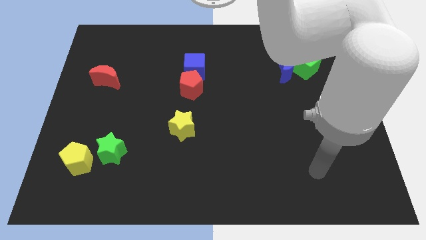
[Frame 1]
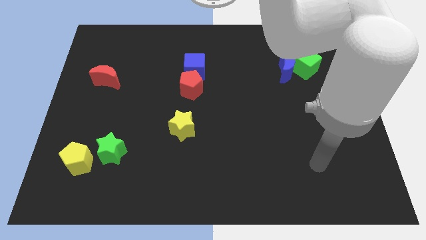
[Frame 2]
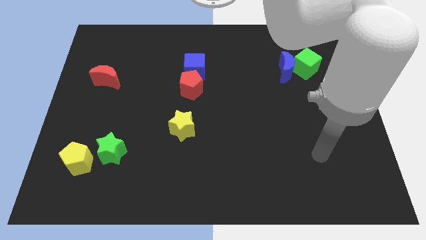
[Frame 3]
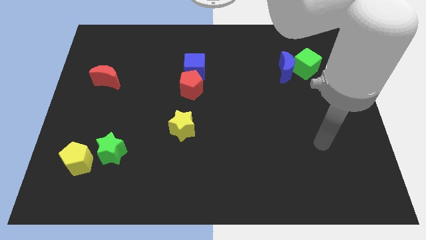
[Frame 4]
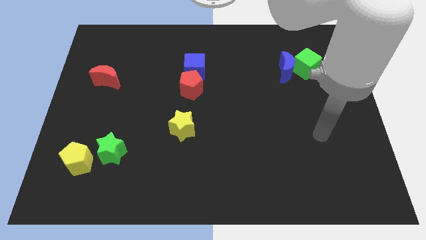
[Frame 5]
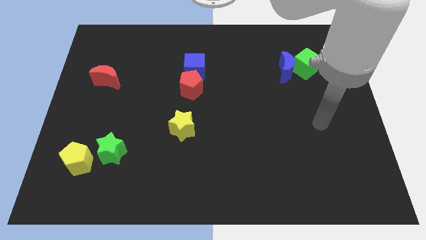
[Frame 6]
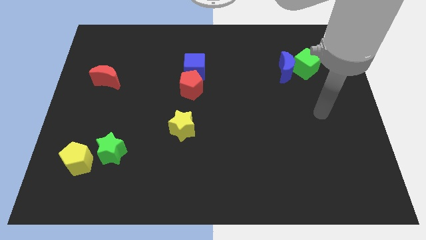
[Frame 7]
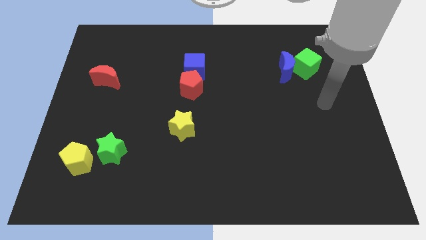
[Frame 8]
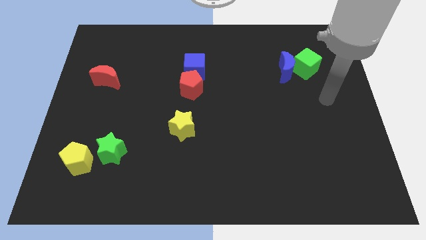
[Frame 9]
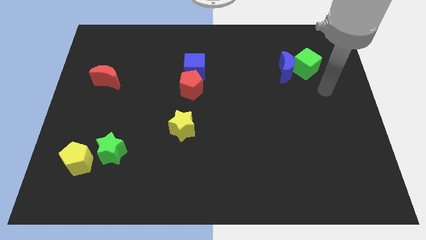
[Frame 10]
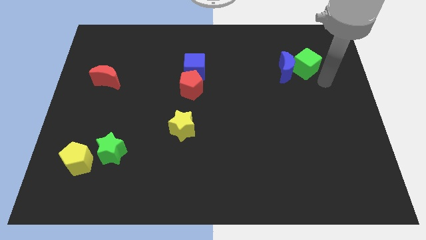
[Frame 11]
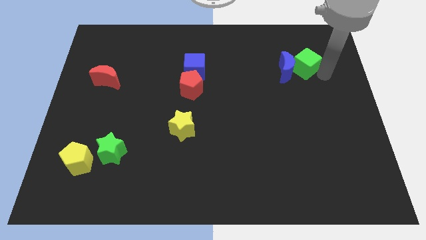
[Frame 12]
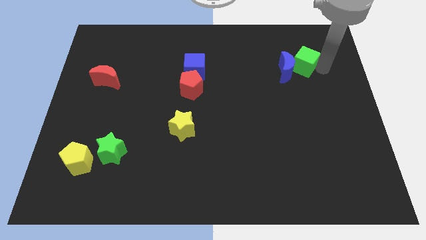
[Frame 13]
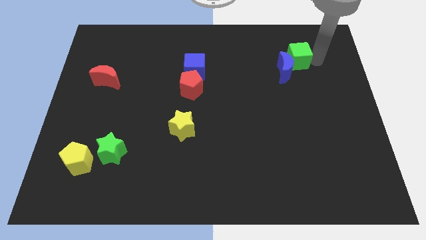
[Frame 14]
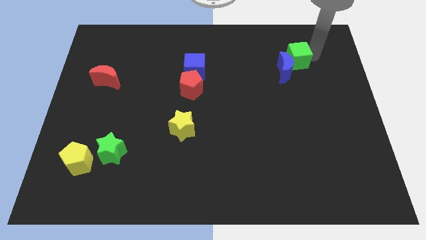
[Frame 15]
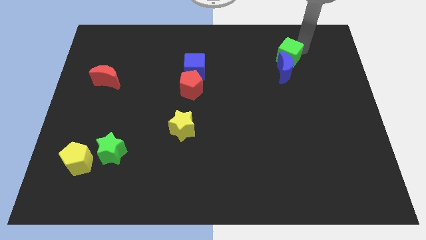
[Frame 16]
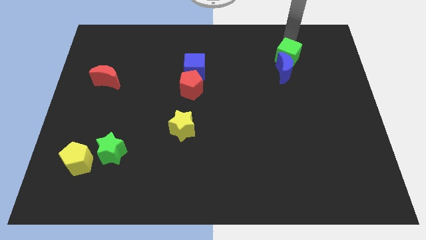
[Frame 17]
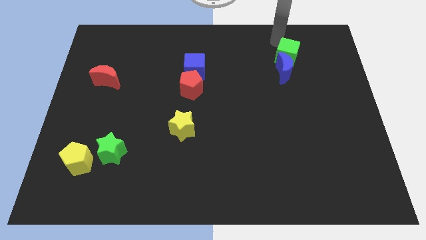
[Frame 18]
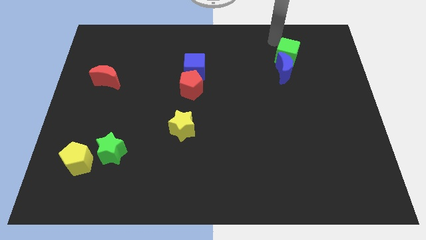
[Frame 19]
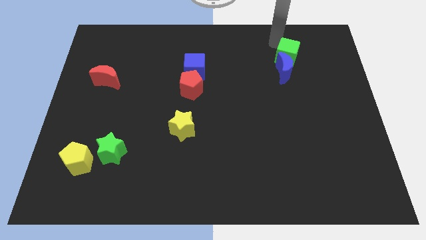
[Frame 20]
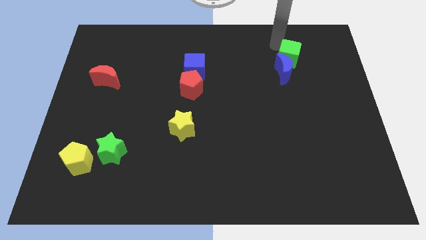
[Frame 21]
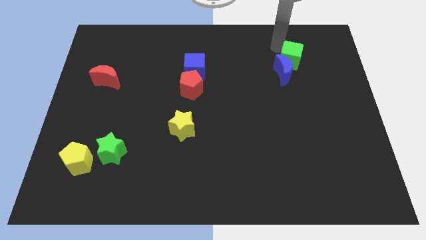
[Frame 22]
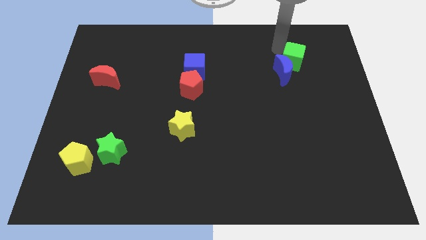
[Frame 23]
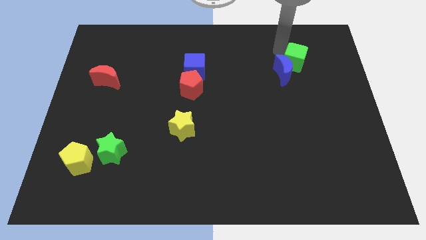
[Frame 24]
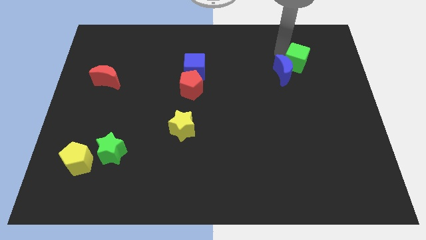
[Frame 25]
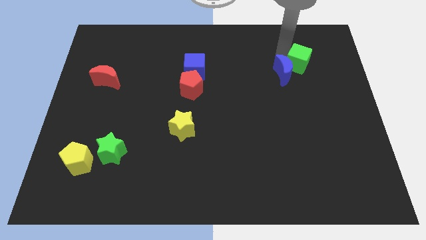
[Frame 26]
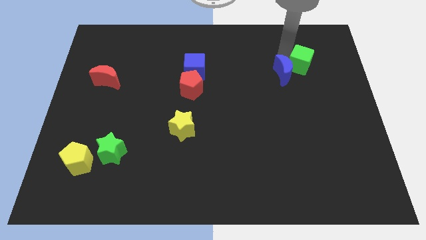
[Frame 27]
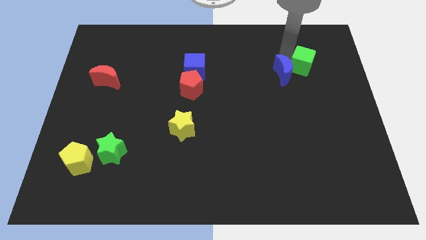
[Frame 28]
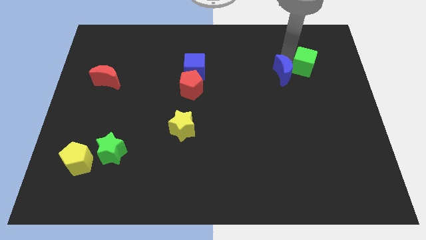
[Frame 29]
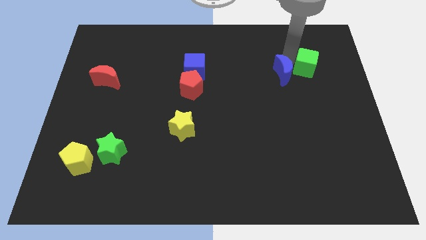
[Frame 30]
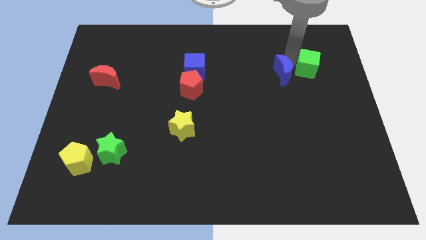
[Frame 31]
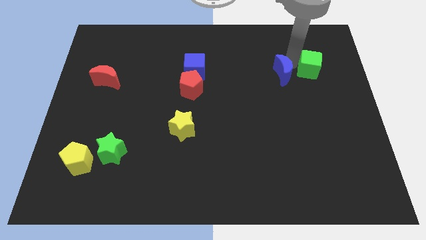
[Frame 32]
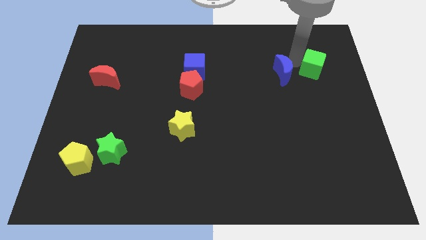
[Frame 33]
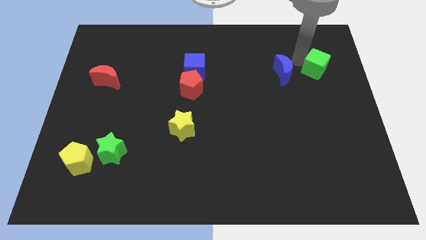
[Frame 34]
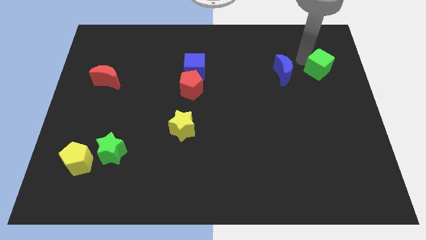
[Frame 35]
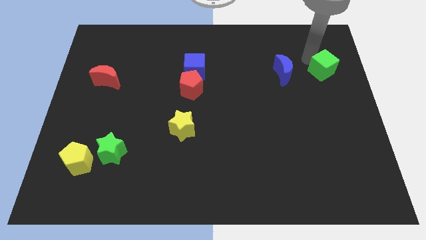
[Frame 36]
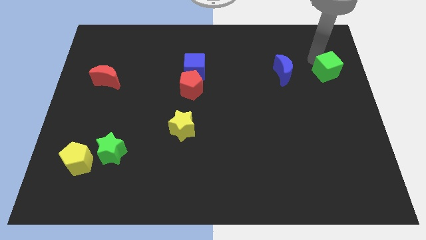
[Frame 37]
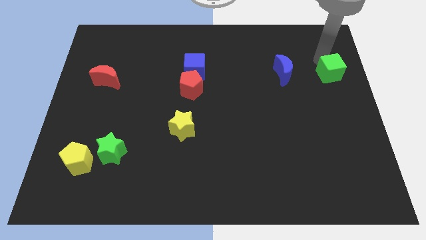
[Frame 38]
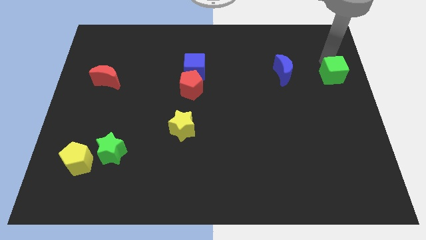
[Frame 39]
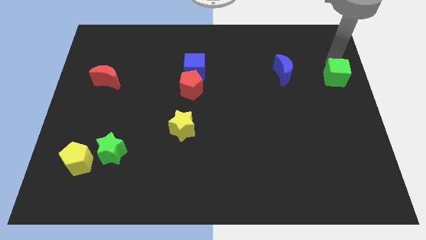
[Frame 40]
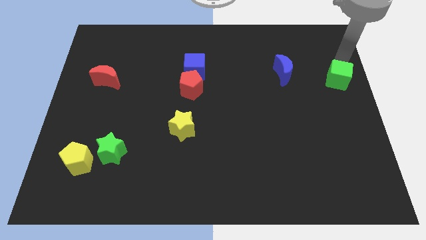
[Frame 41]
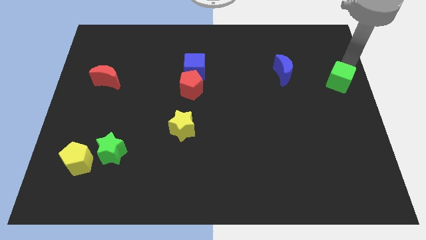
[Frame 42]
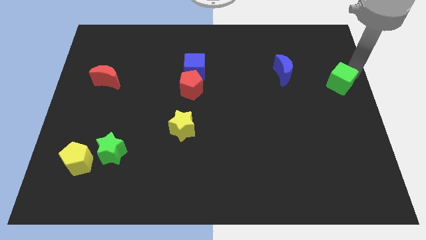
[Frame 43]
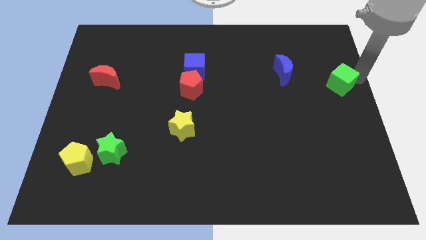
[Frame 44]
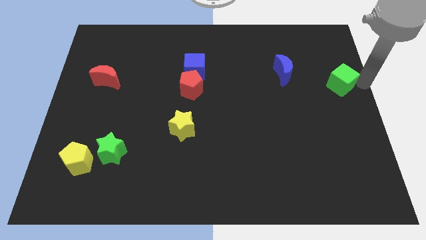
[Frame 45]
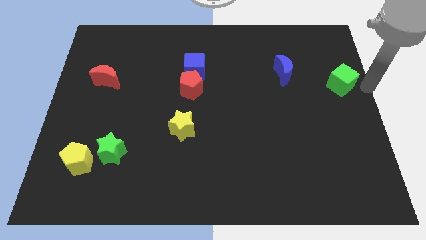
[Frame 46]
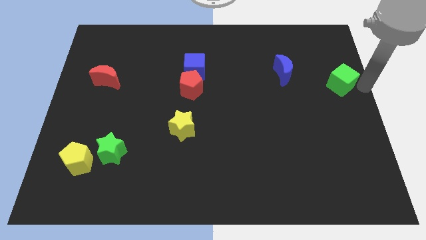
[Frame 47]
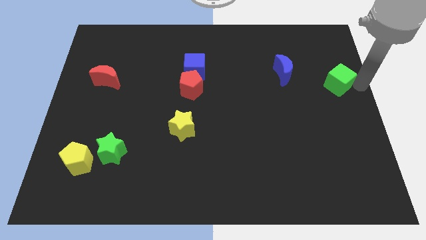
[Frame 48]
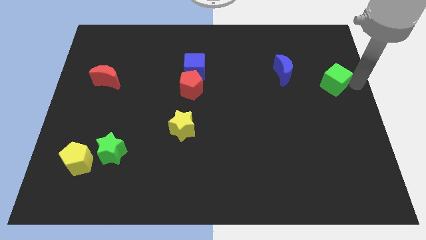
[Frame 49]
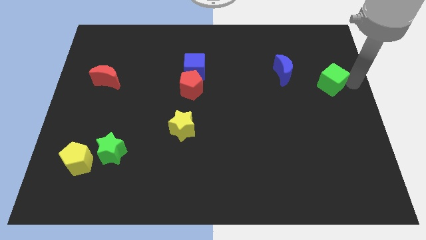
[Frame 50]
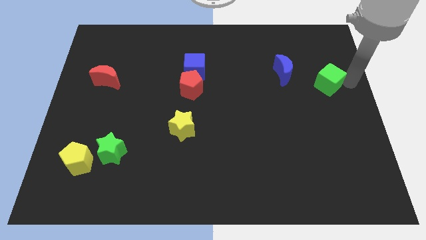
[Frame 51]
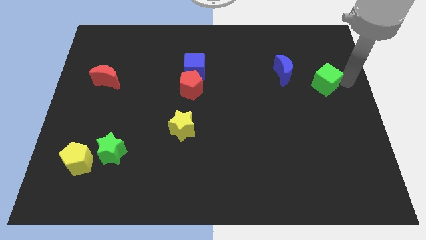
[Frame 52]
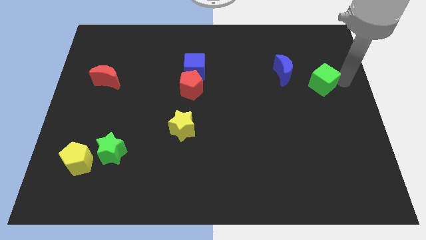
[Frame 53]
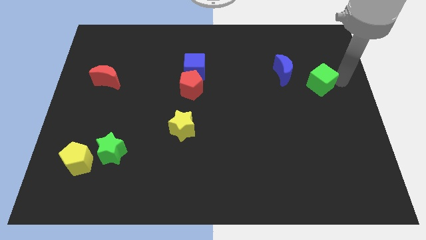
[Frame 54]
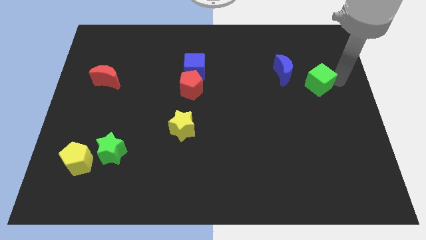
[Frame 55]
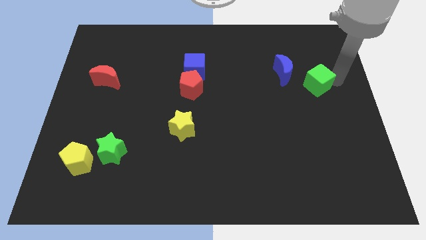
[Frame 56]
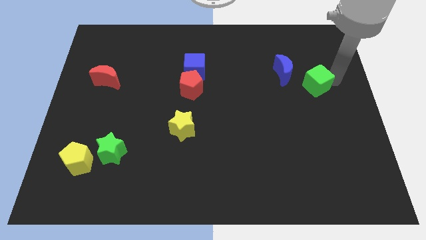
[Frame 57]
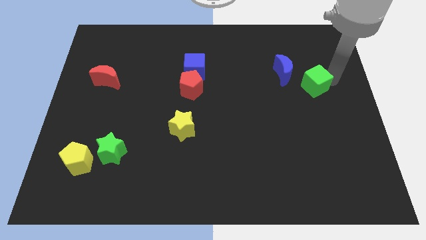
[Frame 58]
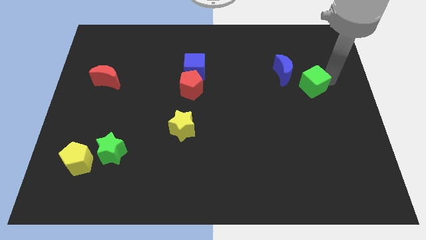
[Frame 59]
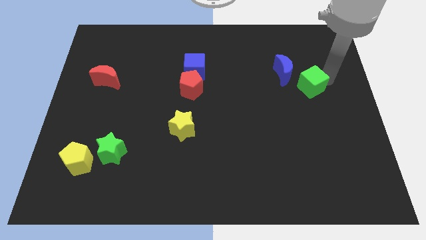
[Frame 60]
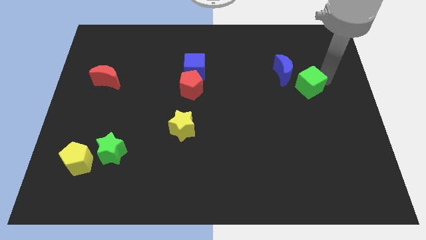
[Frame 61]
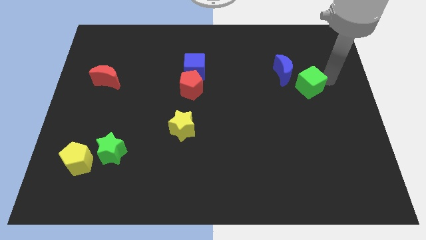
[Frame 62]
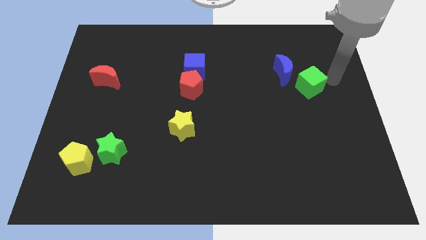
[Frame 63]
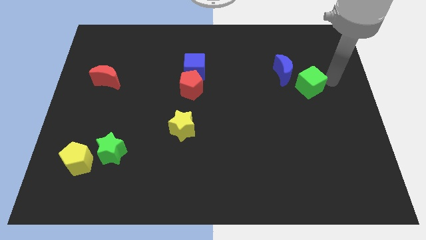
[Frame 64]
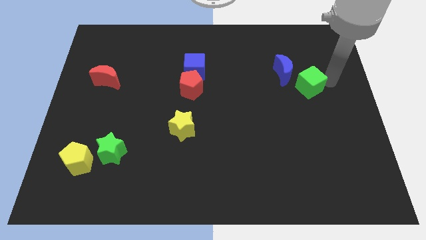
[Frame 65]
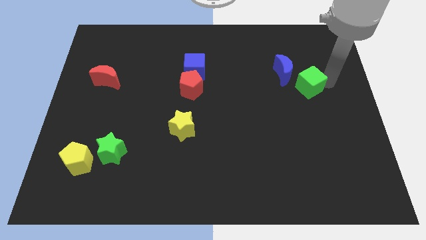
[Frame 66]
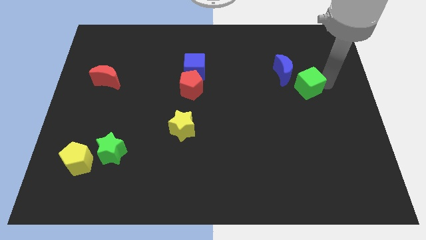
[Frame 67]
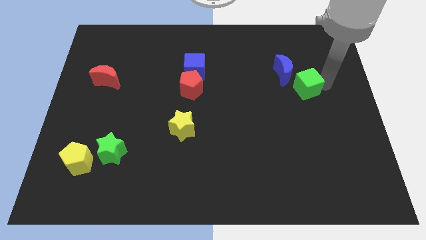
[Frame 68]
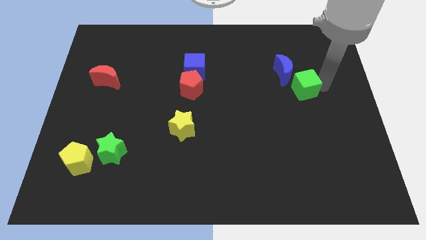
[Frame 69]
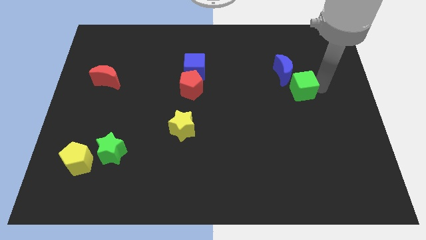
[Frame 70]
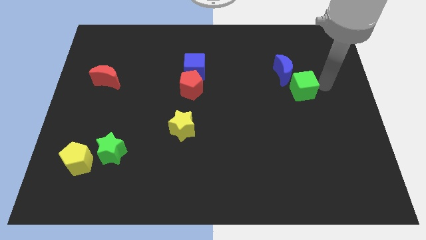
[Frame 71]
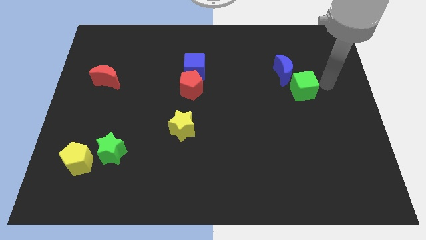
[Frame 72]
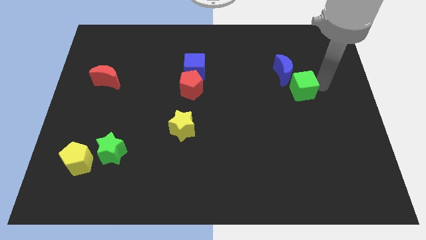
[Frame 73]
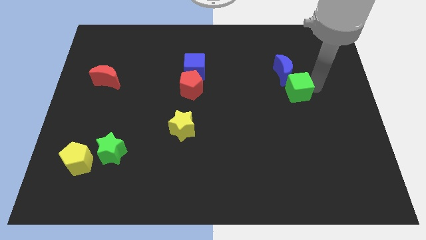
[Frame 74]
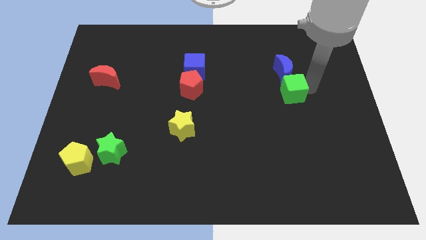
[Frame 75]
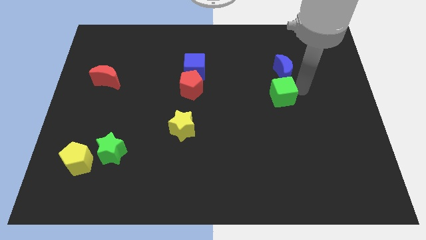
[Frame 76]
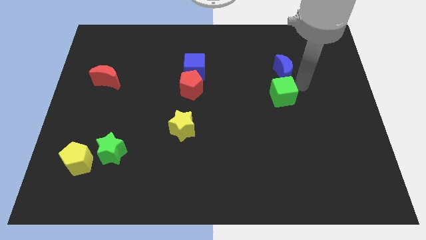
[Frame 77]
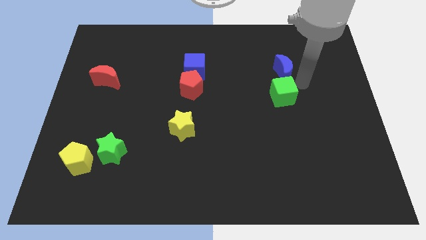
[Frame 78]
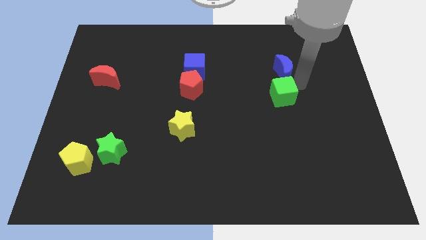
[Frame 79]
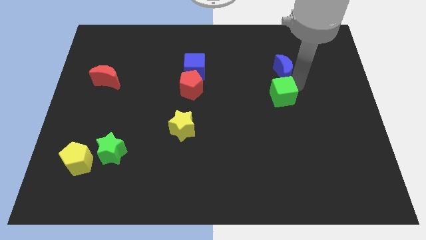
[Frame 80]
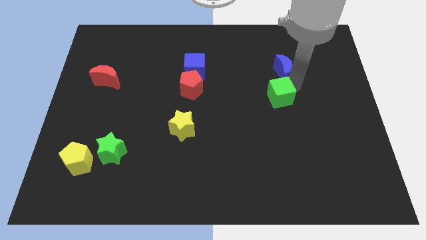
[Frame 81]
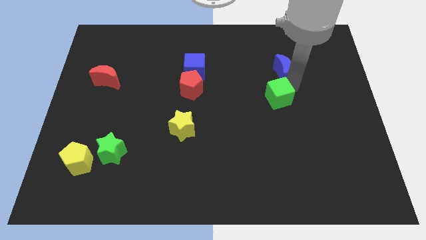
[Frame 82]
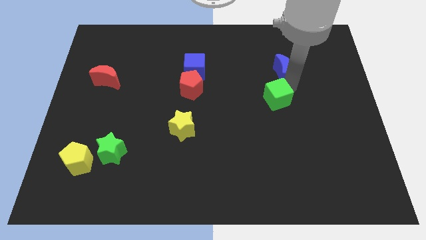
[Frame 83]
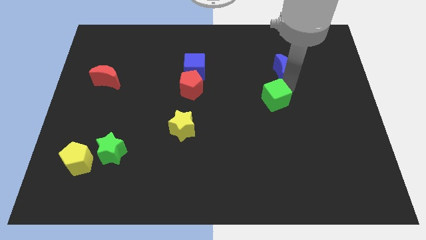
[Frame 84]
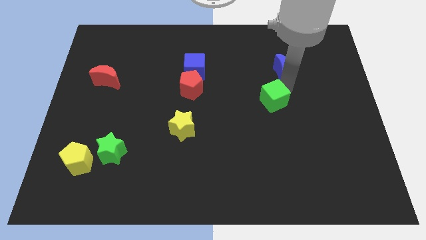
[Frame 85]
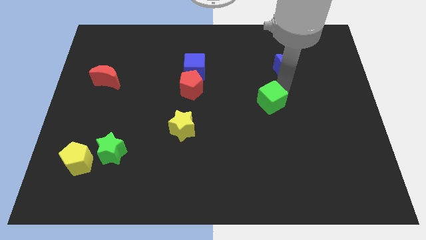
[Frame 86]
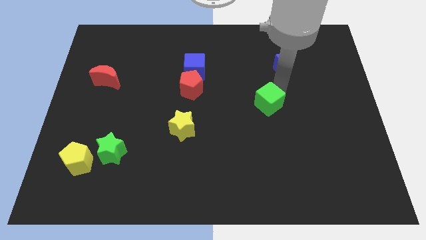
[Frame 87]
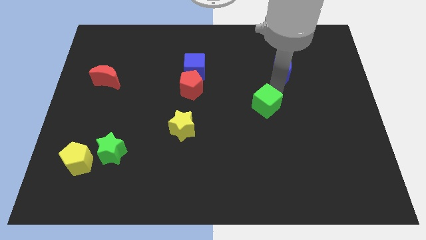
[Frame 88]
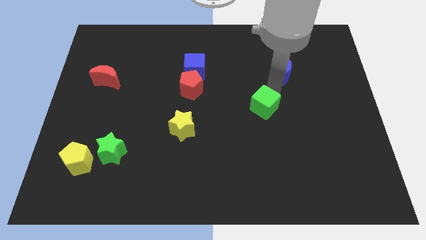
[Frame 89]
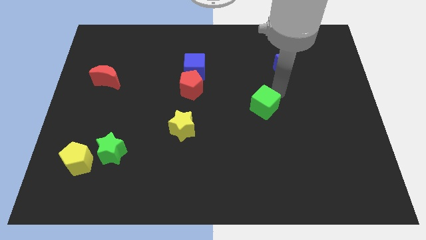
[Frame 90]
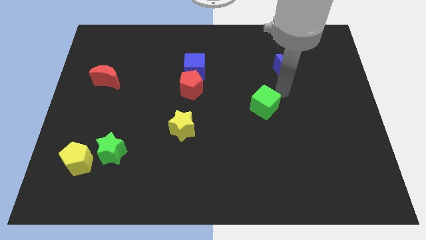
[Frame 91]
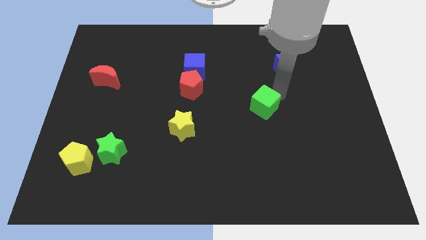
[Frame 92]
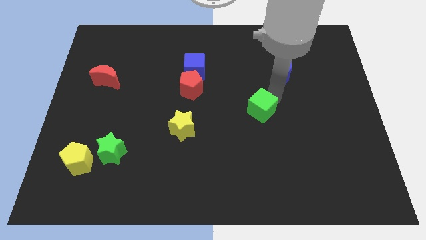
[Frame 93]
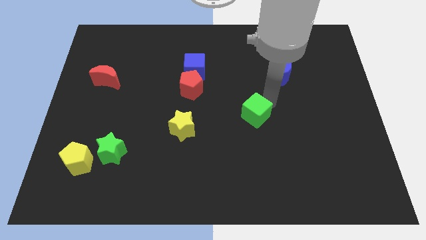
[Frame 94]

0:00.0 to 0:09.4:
slide the green cube down and left diagonally
